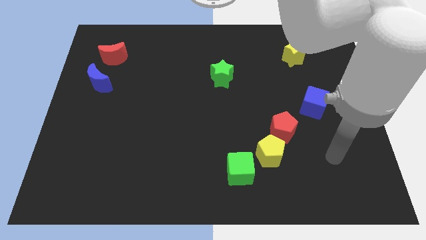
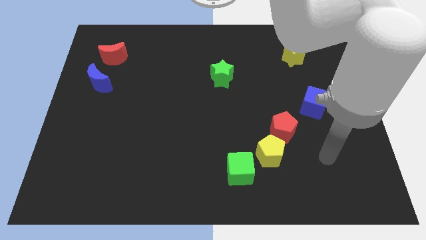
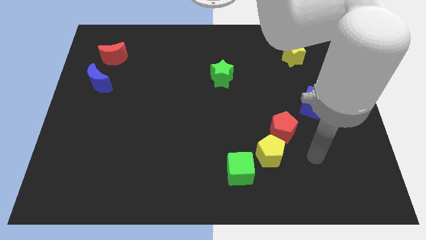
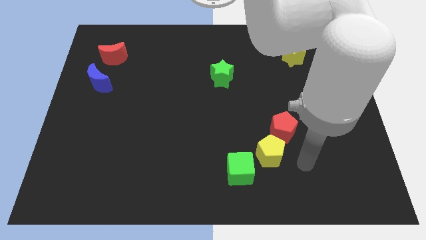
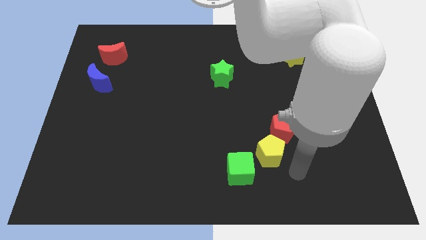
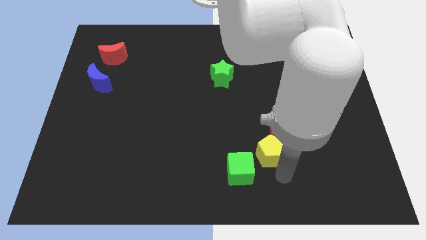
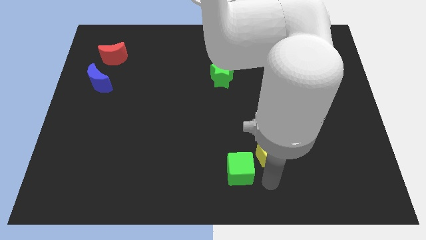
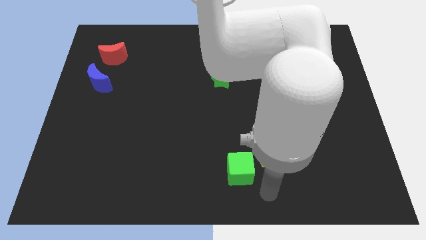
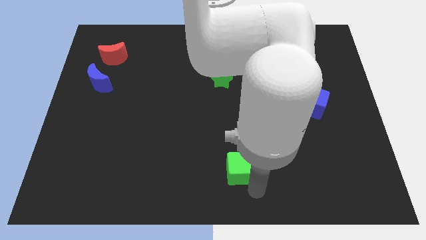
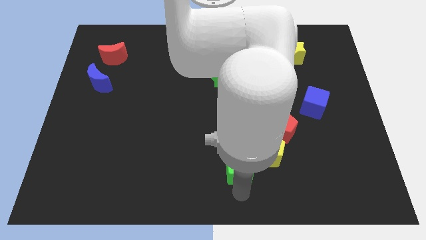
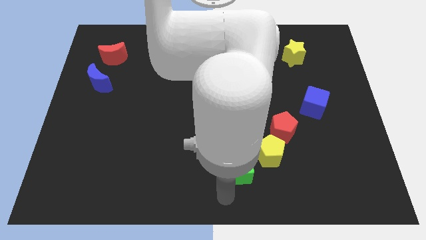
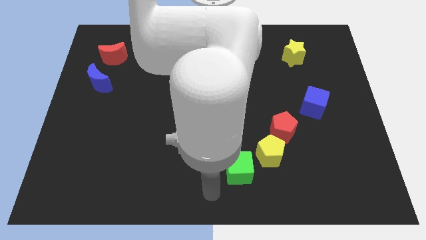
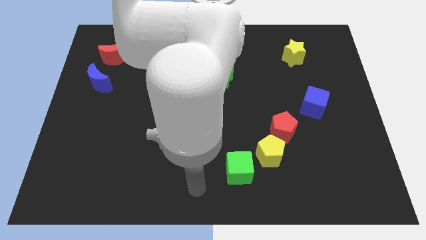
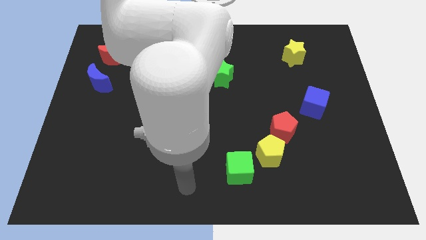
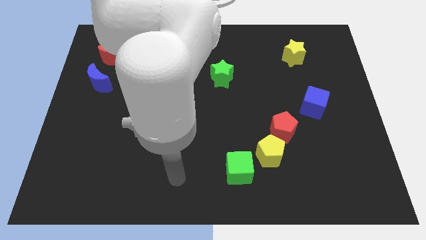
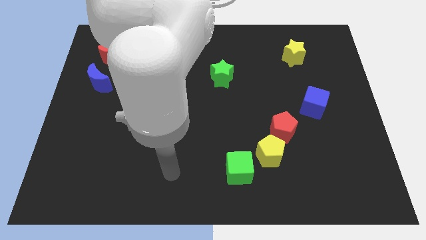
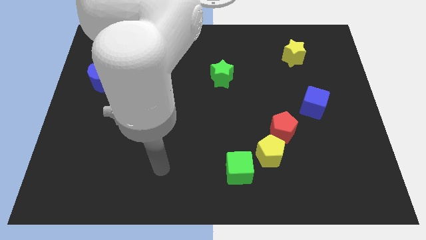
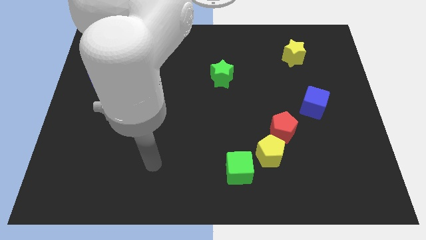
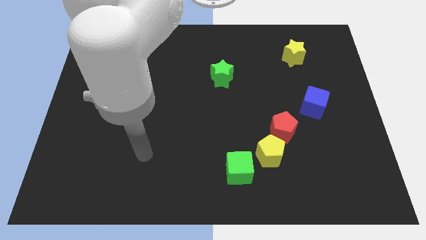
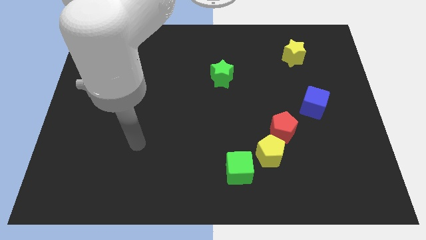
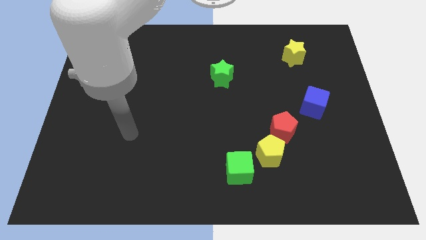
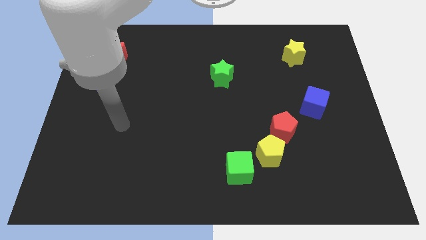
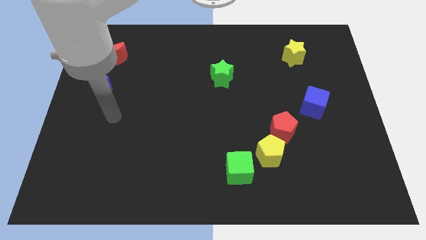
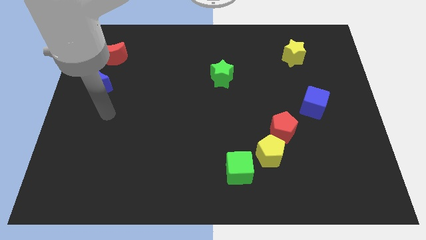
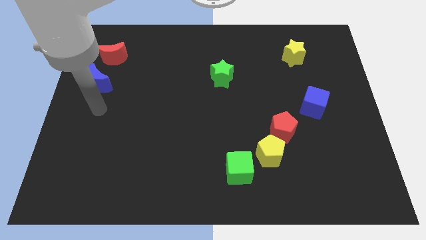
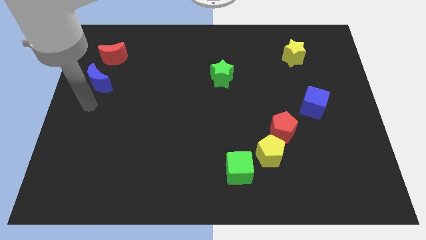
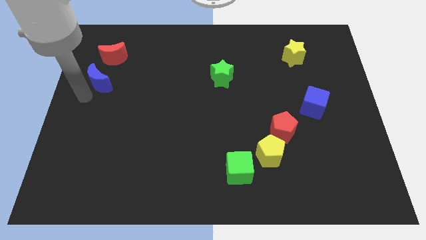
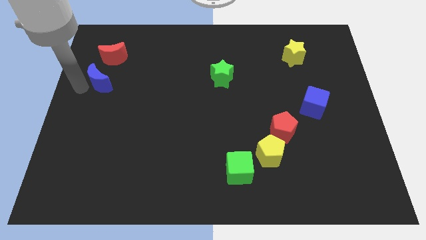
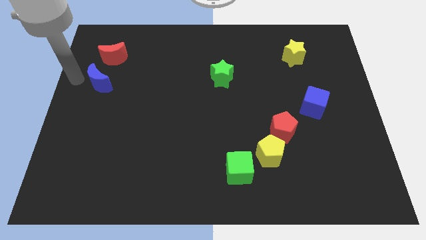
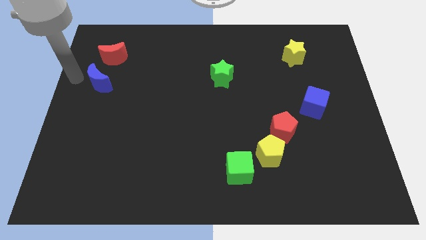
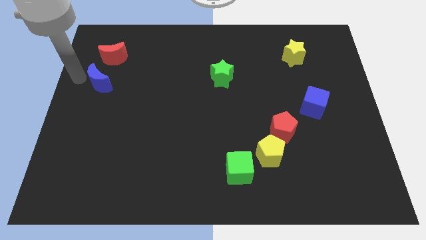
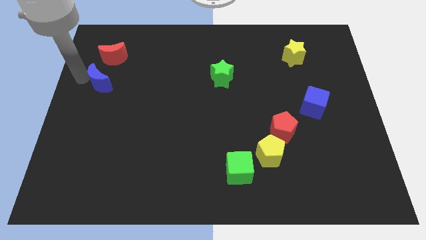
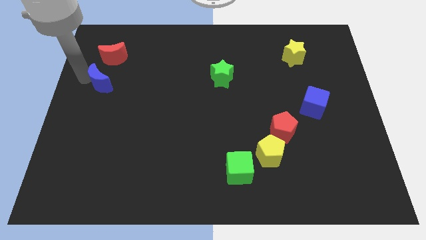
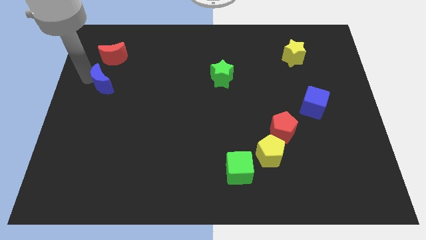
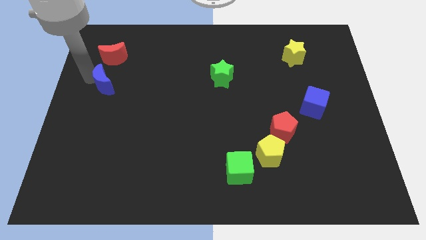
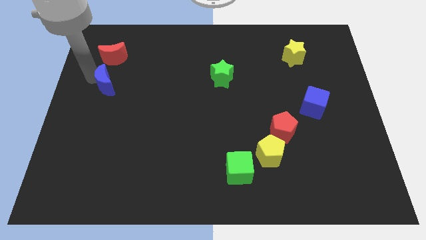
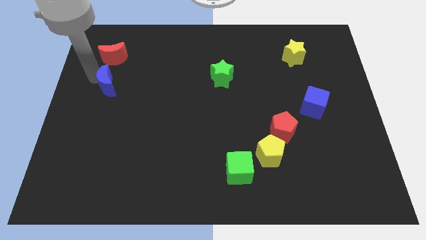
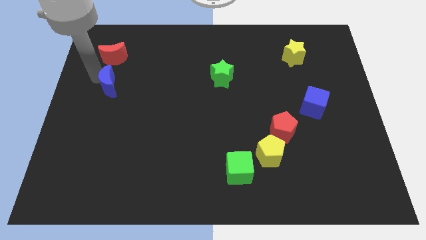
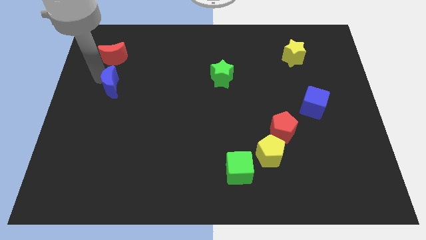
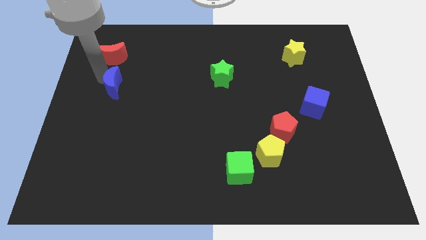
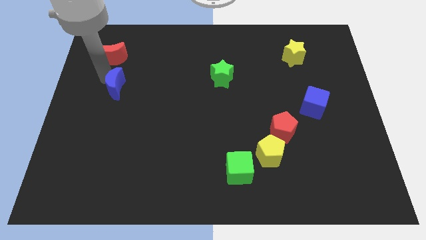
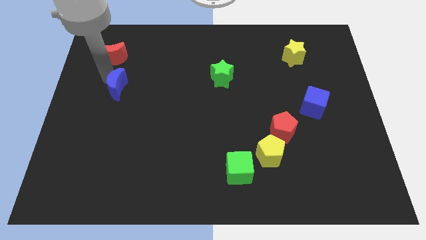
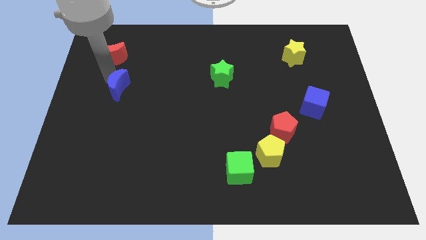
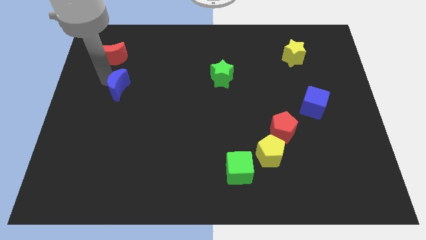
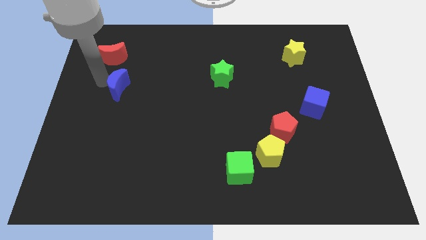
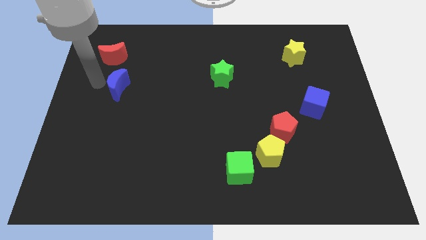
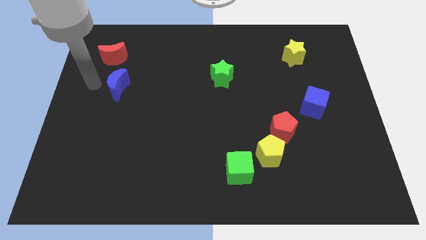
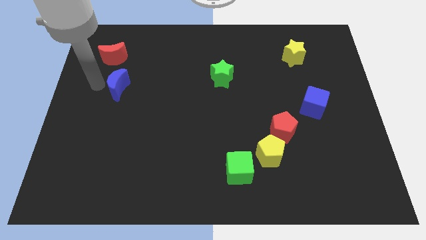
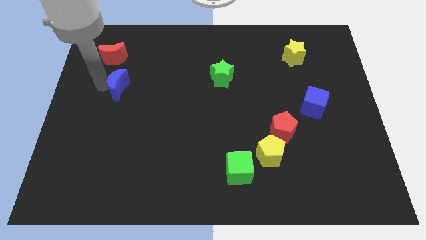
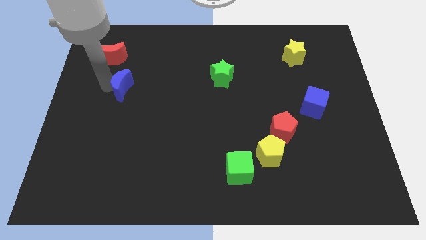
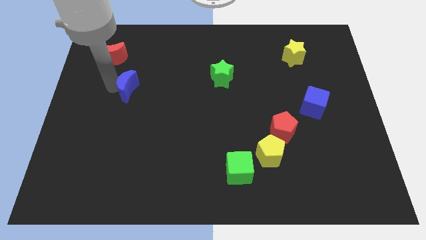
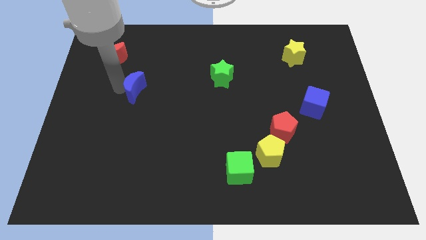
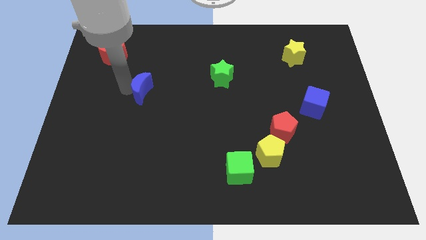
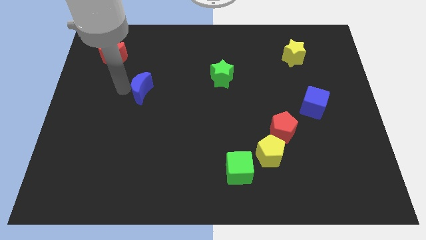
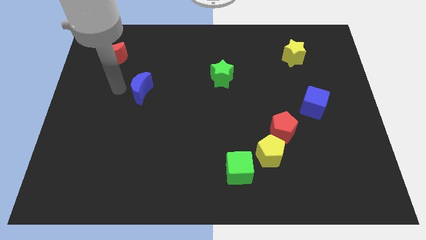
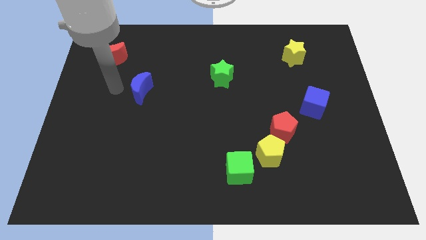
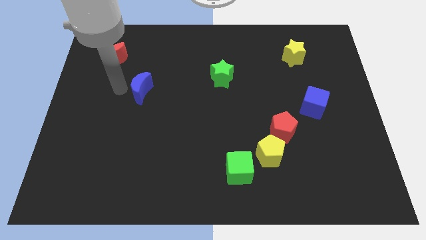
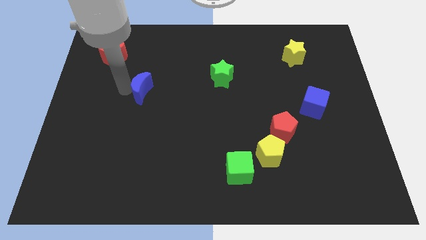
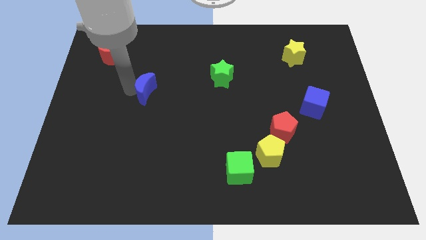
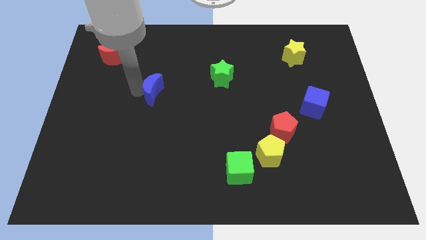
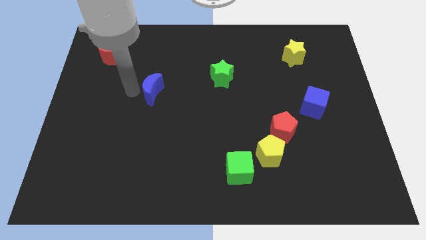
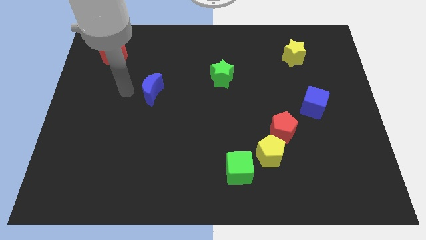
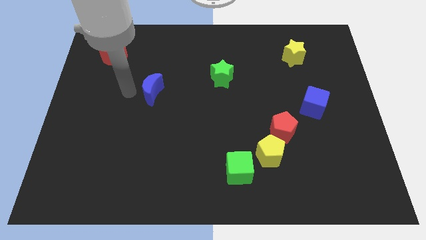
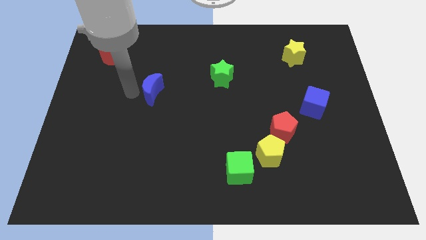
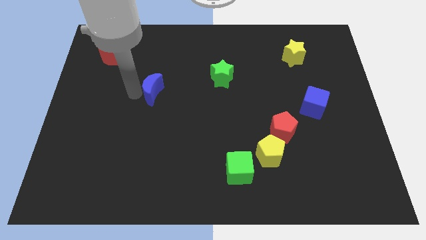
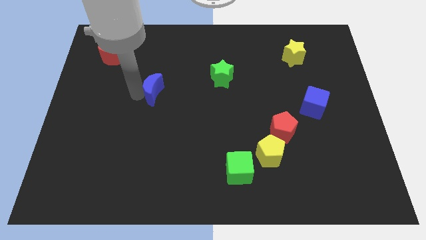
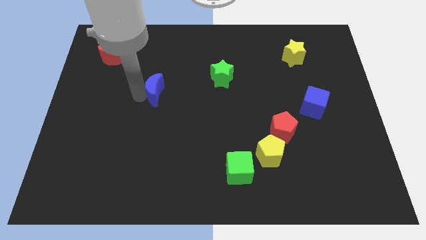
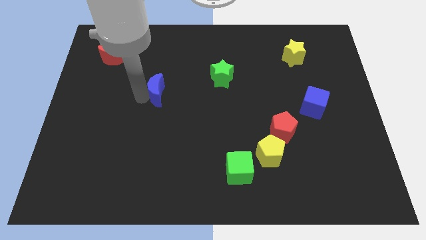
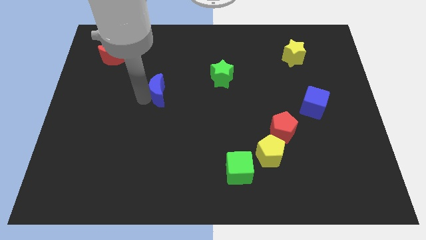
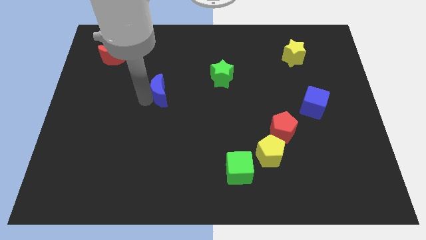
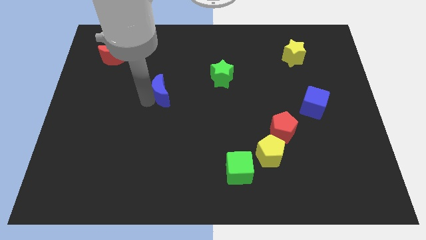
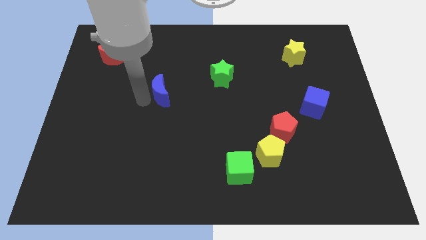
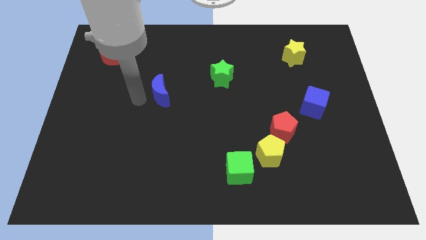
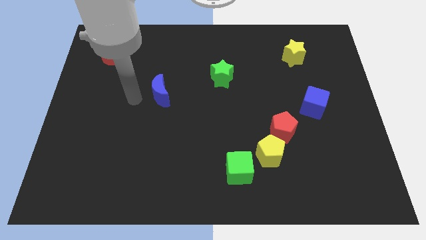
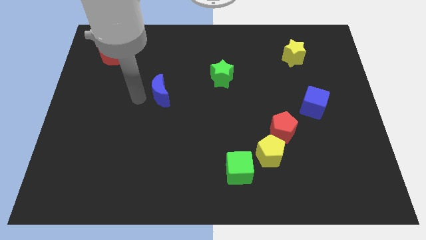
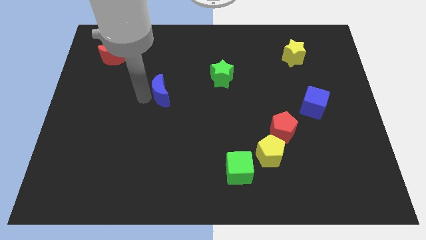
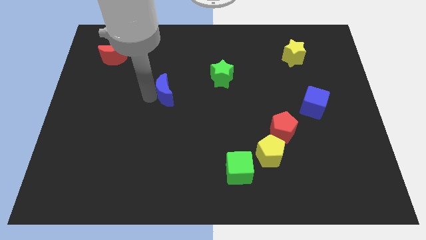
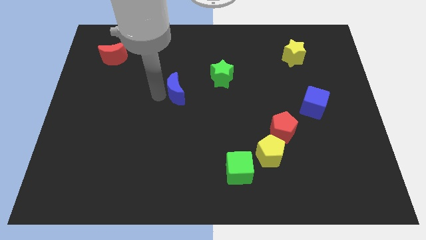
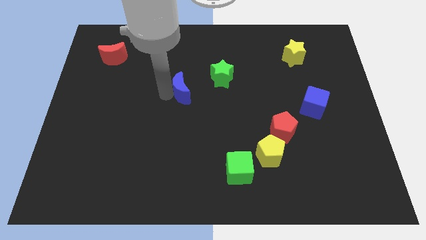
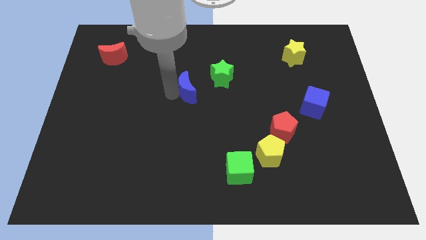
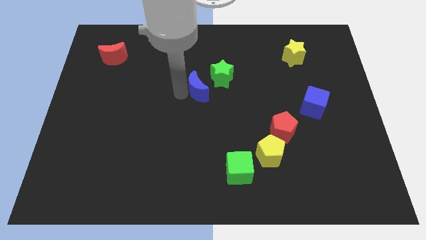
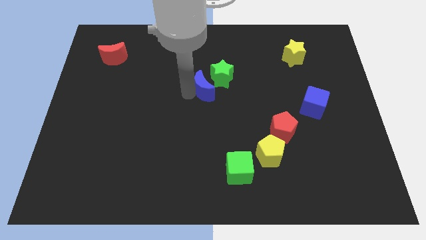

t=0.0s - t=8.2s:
move the blue moon close to the green star
